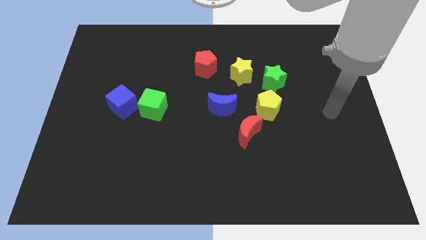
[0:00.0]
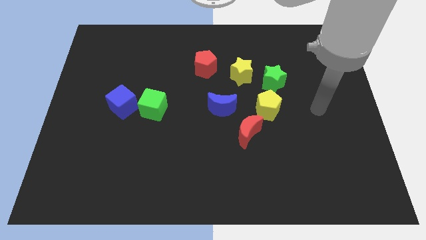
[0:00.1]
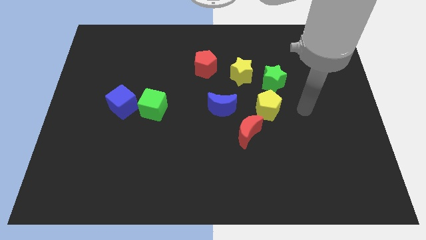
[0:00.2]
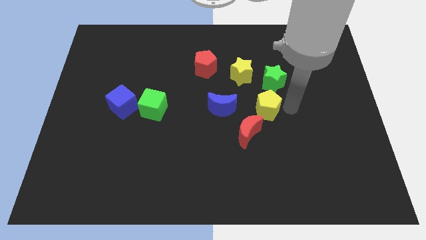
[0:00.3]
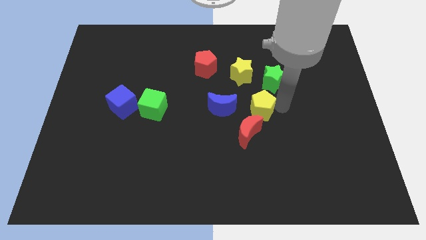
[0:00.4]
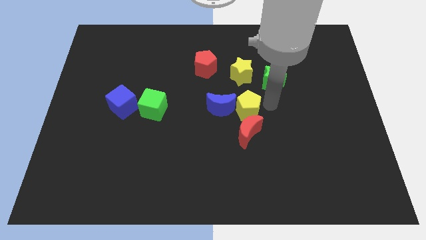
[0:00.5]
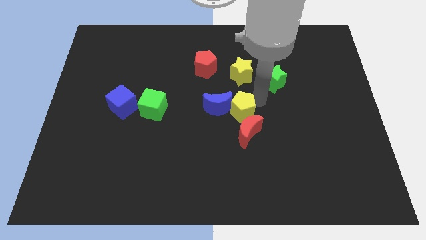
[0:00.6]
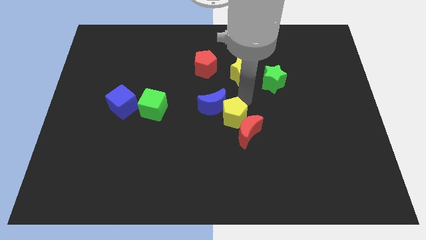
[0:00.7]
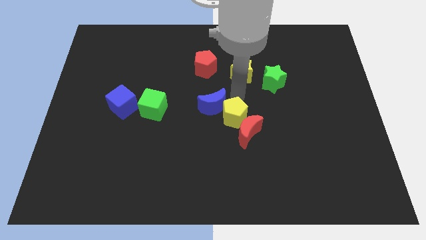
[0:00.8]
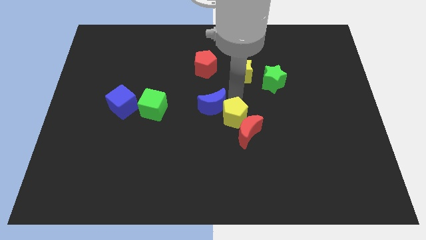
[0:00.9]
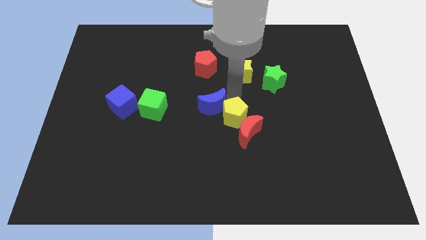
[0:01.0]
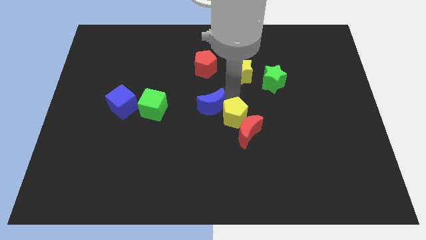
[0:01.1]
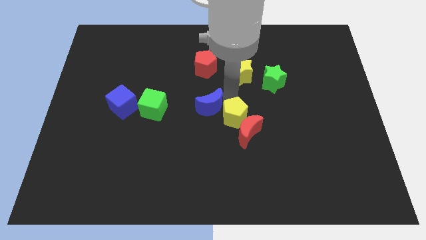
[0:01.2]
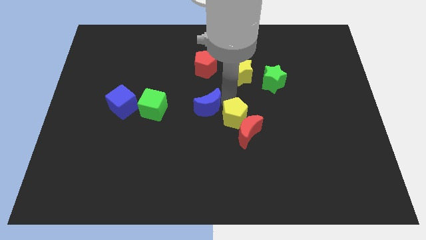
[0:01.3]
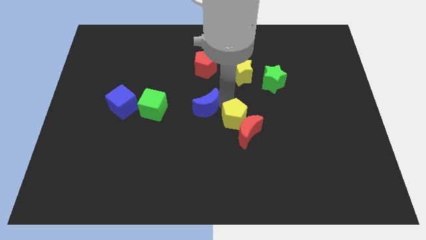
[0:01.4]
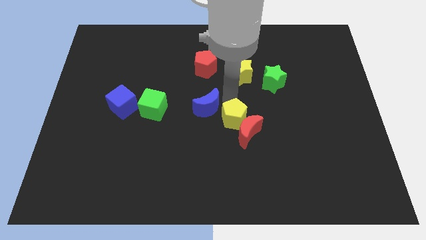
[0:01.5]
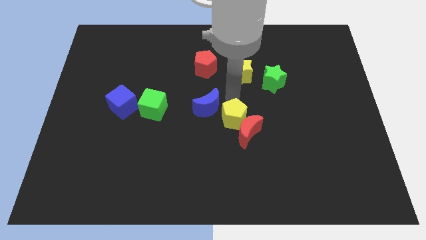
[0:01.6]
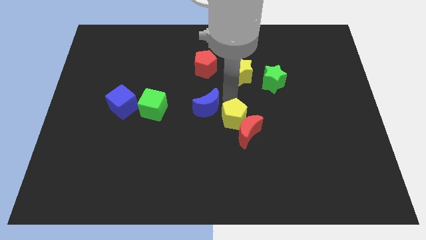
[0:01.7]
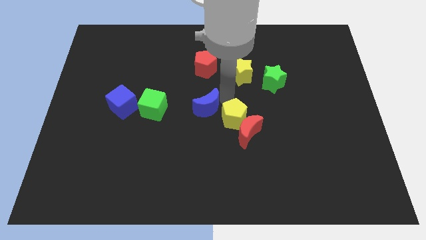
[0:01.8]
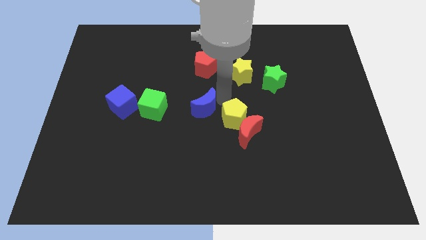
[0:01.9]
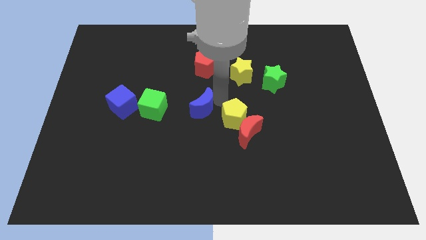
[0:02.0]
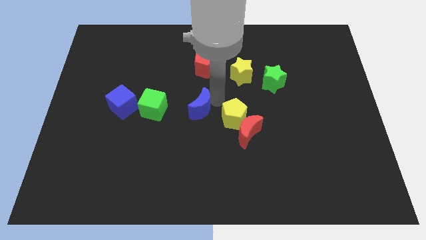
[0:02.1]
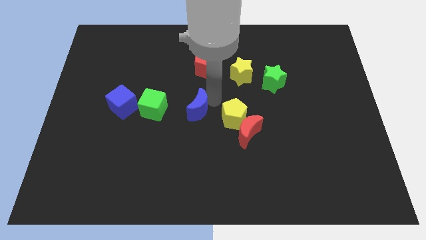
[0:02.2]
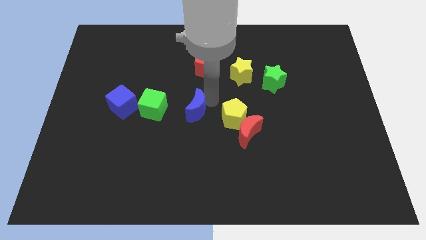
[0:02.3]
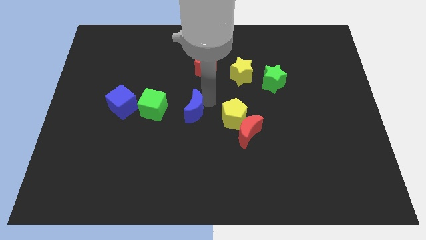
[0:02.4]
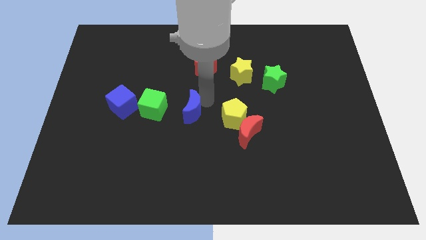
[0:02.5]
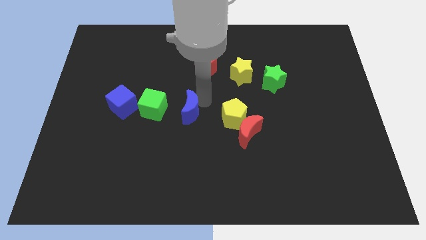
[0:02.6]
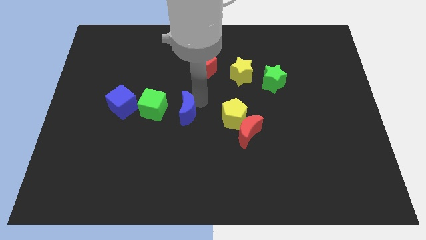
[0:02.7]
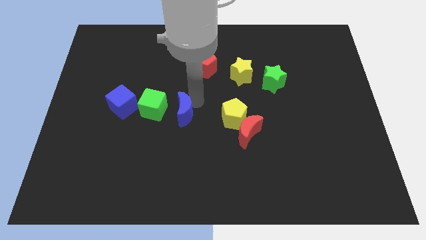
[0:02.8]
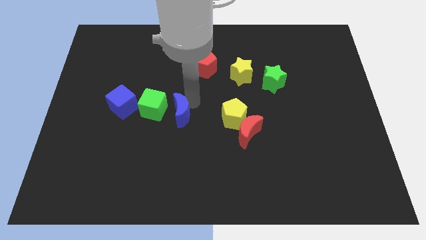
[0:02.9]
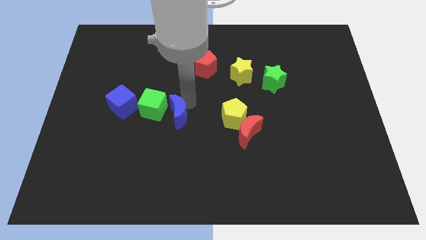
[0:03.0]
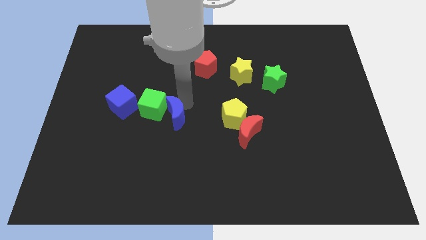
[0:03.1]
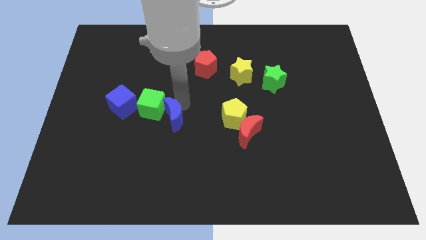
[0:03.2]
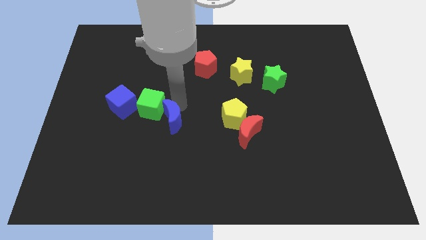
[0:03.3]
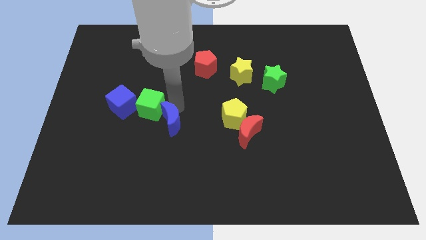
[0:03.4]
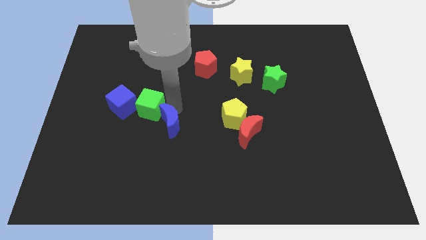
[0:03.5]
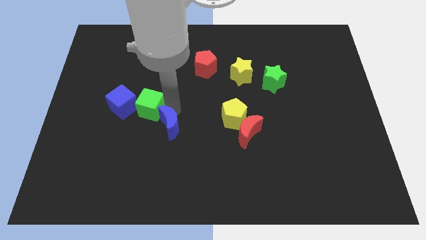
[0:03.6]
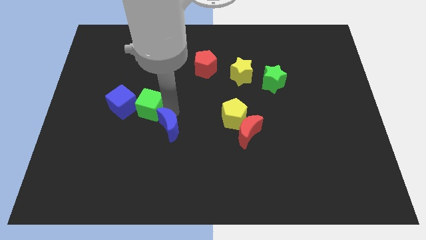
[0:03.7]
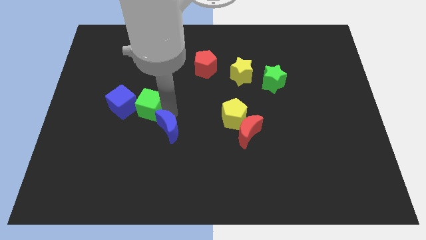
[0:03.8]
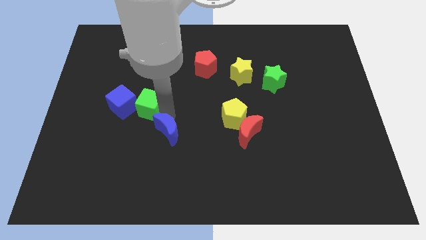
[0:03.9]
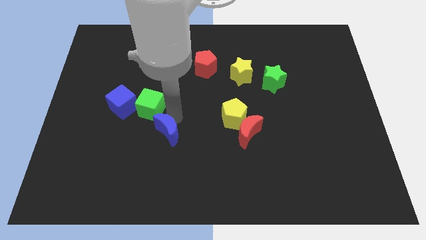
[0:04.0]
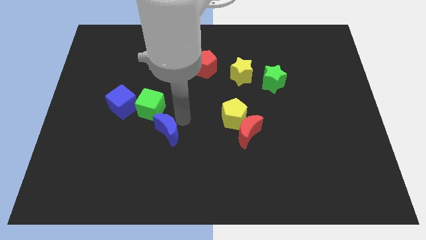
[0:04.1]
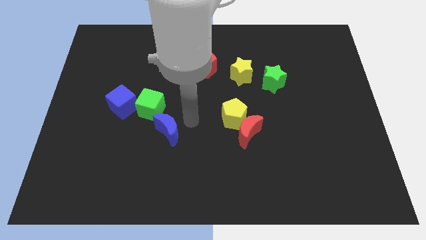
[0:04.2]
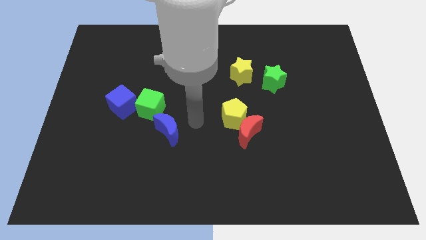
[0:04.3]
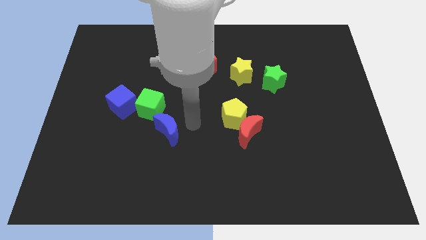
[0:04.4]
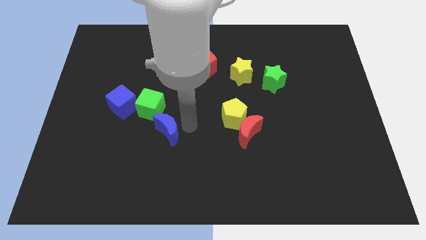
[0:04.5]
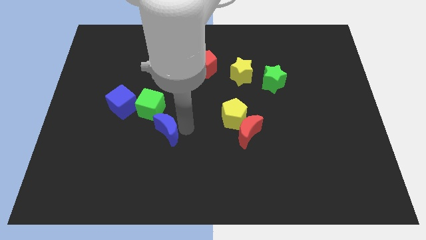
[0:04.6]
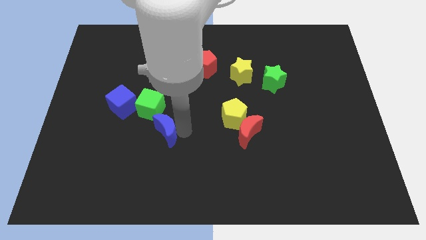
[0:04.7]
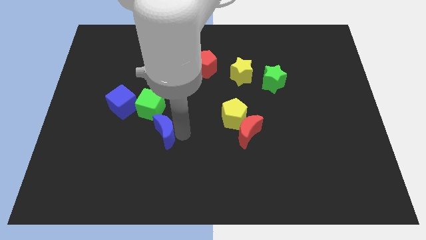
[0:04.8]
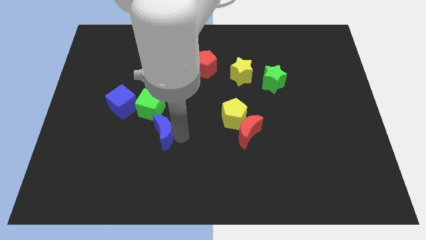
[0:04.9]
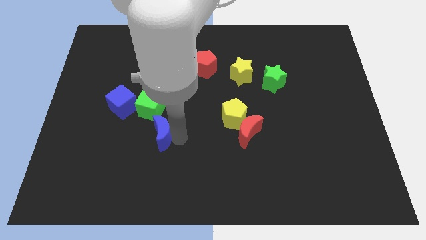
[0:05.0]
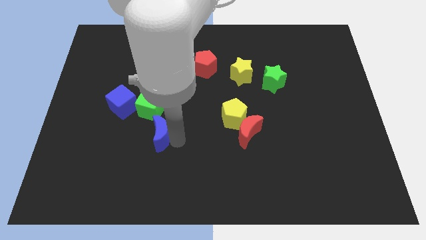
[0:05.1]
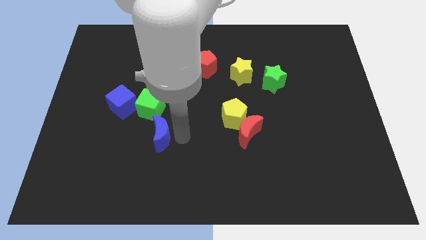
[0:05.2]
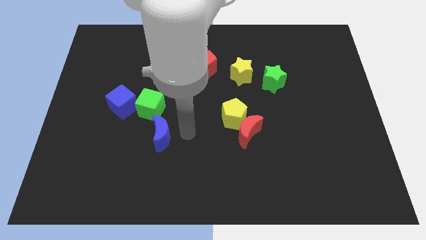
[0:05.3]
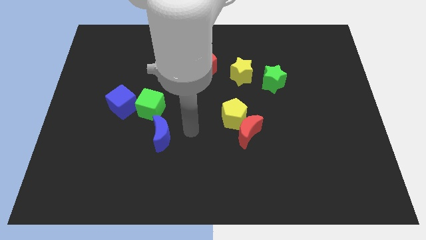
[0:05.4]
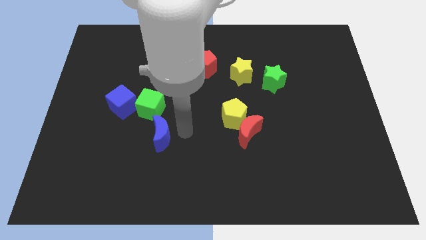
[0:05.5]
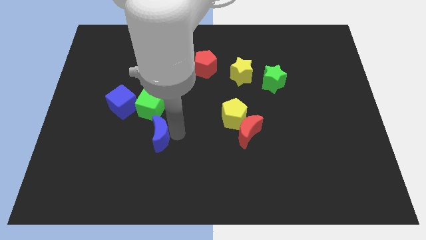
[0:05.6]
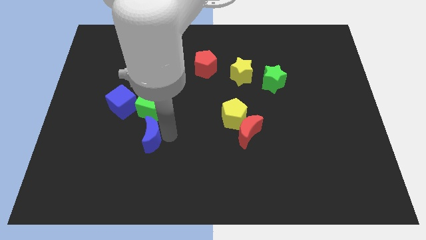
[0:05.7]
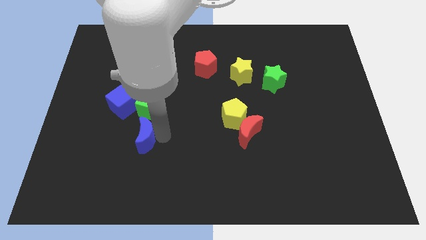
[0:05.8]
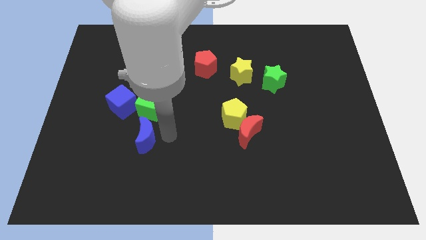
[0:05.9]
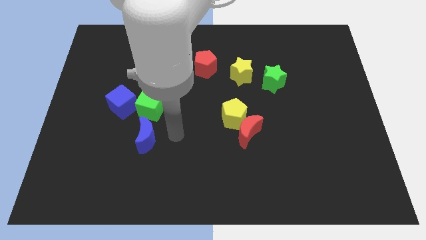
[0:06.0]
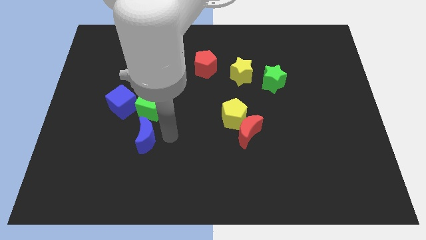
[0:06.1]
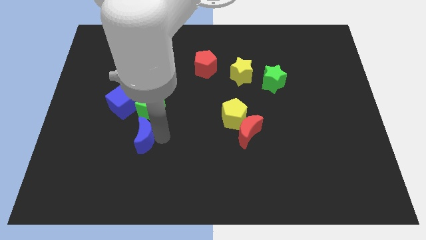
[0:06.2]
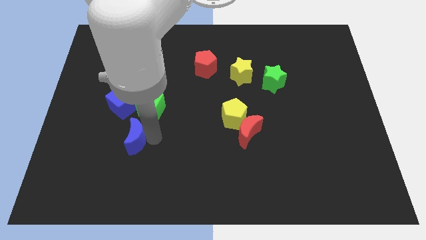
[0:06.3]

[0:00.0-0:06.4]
push the blue moon to the bottom of the blue cube
